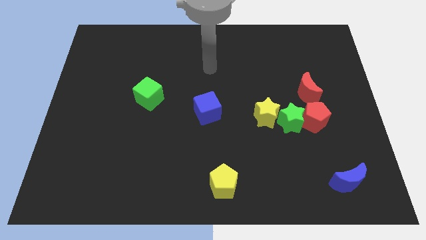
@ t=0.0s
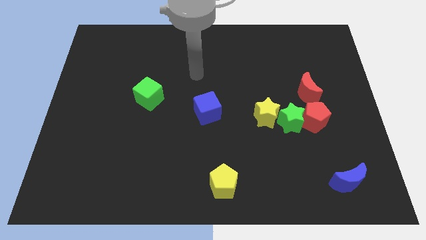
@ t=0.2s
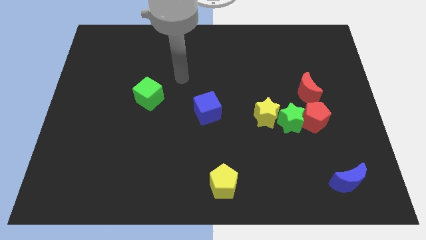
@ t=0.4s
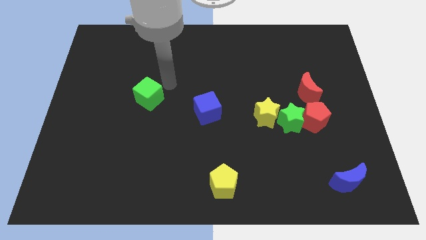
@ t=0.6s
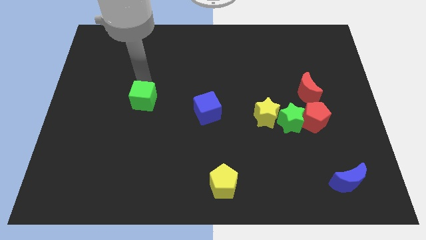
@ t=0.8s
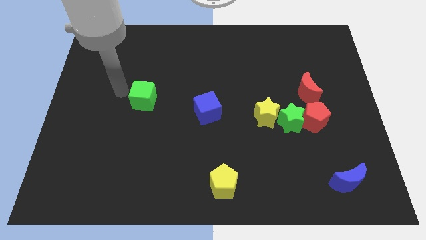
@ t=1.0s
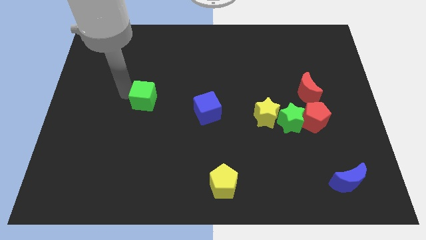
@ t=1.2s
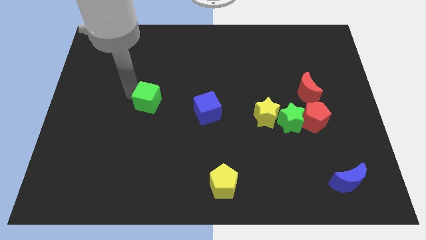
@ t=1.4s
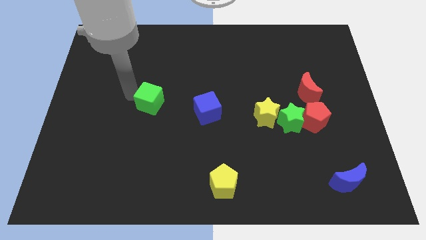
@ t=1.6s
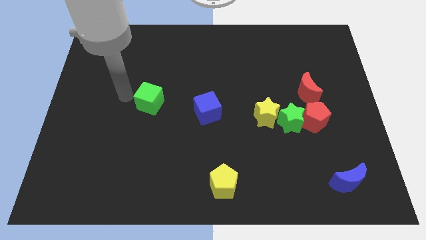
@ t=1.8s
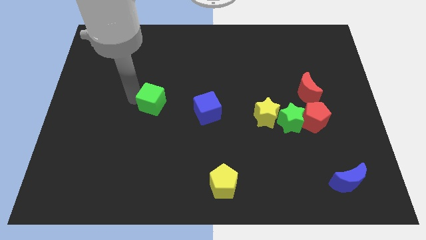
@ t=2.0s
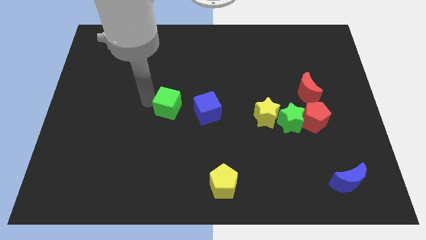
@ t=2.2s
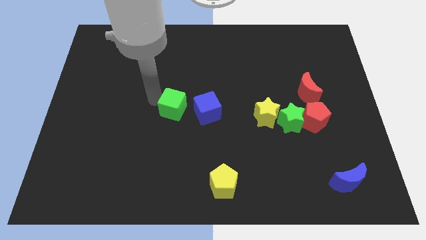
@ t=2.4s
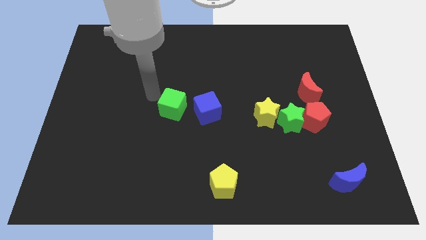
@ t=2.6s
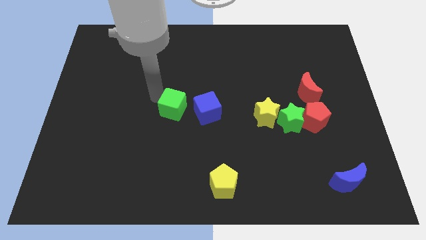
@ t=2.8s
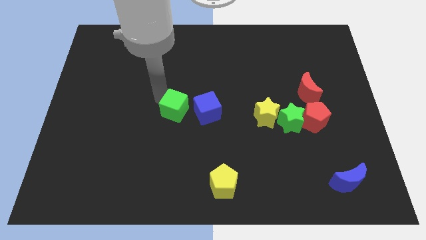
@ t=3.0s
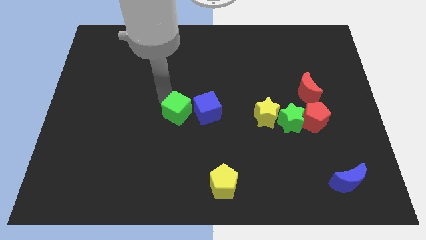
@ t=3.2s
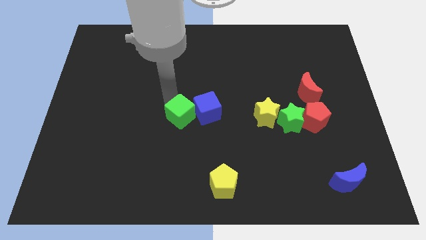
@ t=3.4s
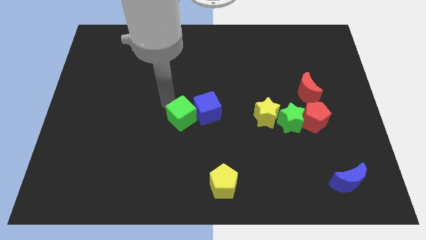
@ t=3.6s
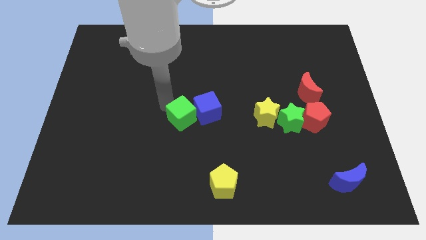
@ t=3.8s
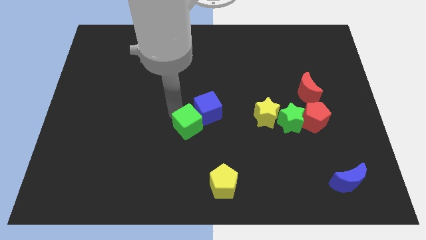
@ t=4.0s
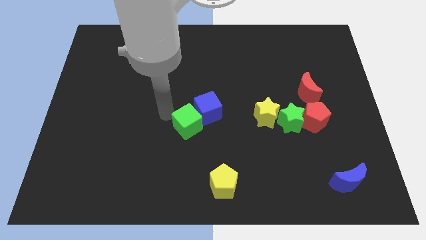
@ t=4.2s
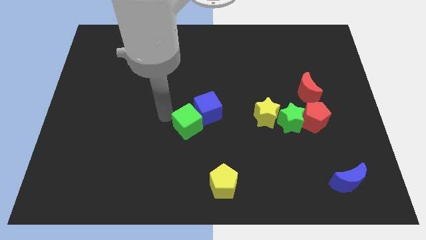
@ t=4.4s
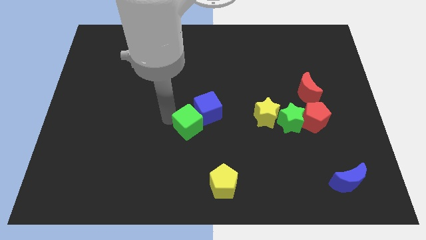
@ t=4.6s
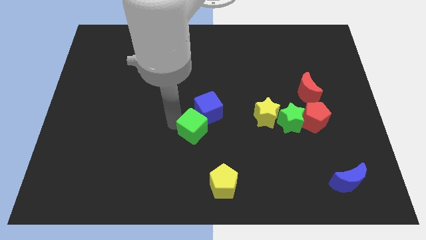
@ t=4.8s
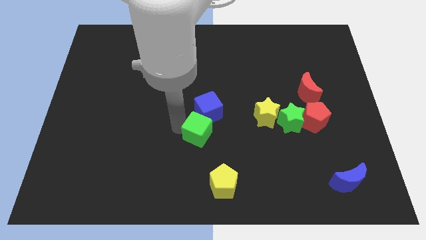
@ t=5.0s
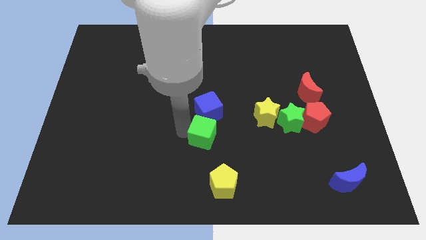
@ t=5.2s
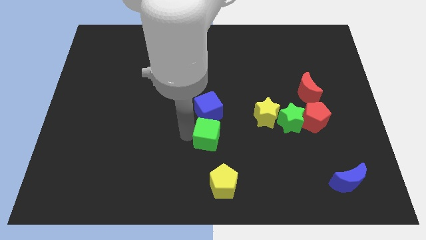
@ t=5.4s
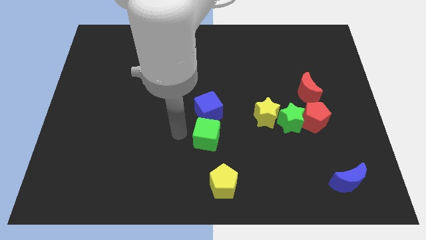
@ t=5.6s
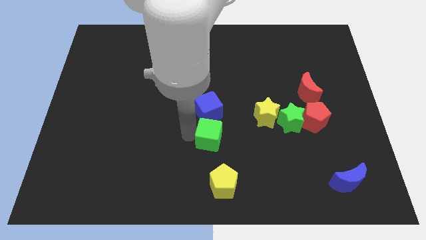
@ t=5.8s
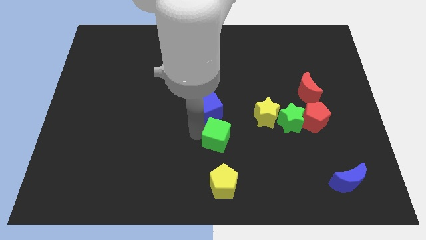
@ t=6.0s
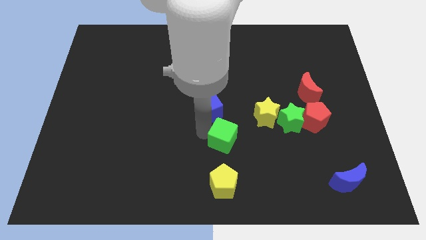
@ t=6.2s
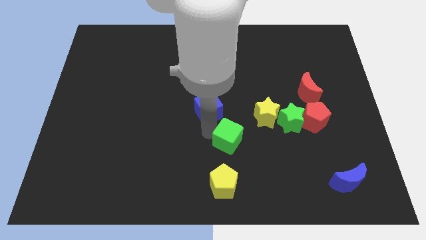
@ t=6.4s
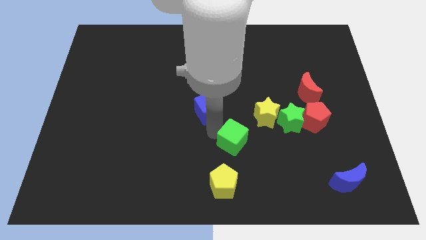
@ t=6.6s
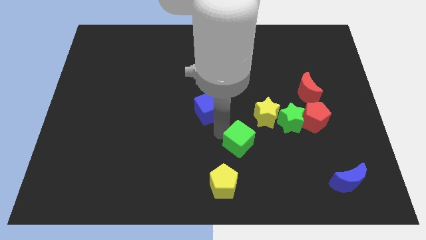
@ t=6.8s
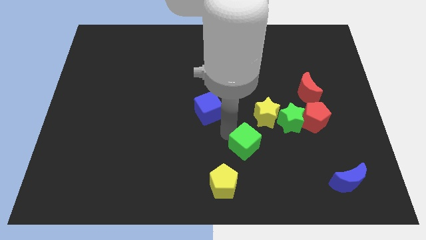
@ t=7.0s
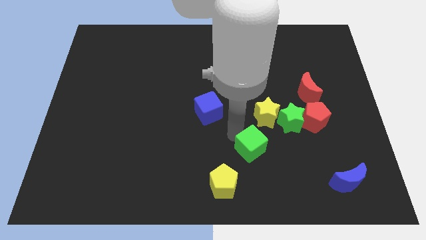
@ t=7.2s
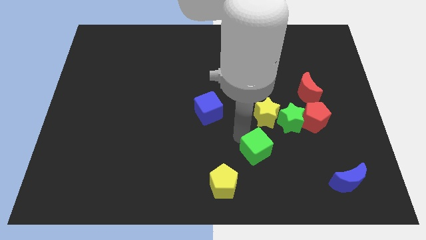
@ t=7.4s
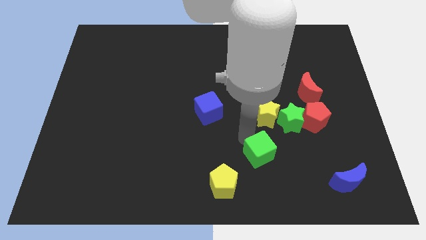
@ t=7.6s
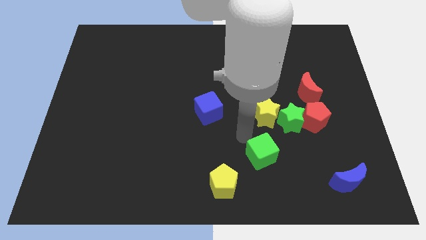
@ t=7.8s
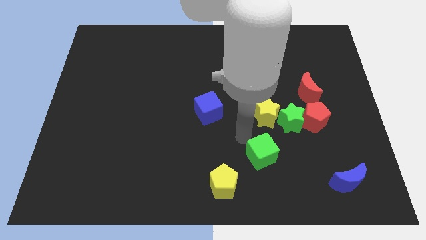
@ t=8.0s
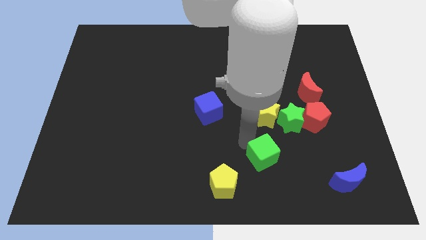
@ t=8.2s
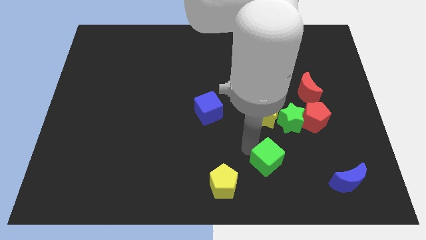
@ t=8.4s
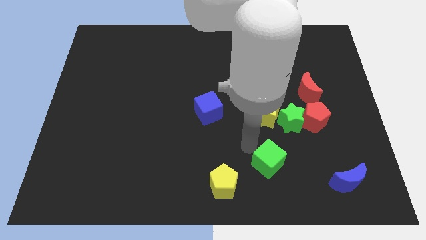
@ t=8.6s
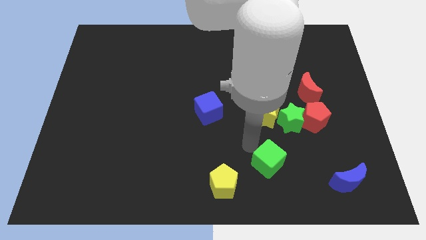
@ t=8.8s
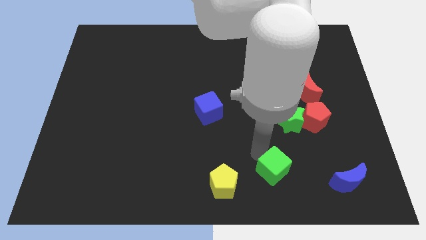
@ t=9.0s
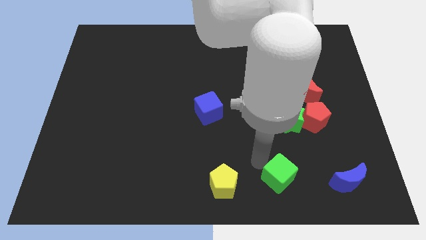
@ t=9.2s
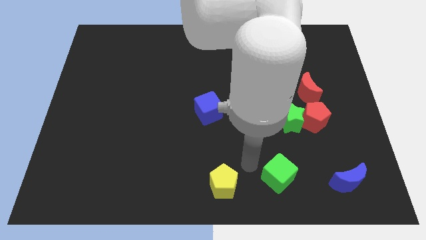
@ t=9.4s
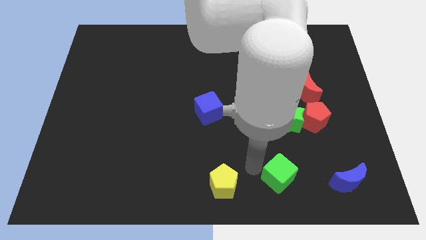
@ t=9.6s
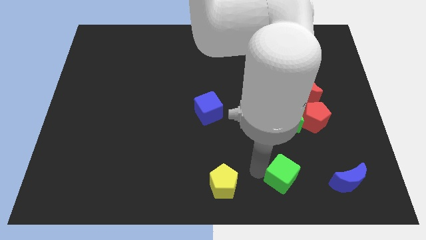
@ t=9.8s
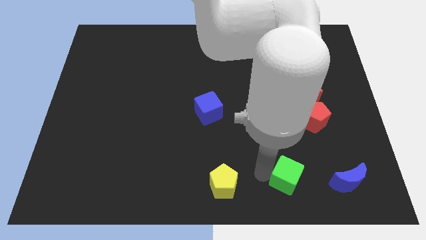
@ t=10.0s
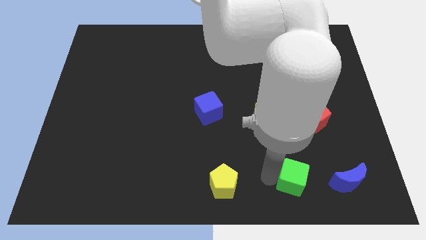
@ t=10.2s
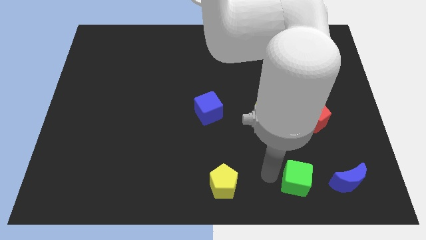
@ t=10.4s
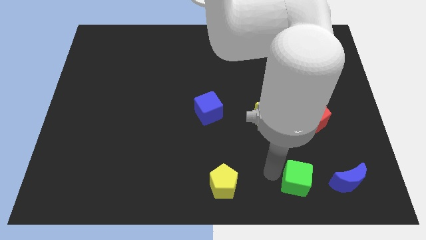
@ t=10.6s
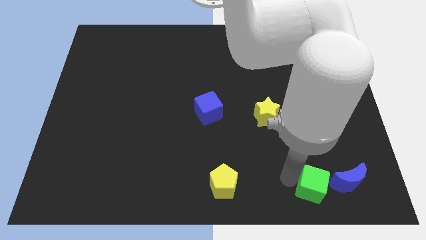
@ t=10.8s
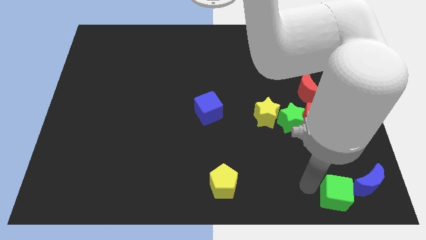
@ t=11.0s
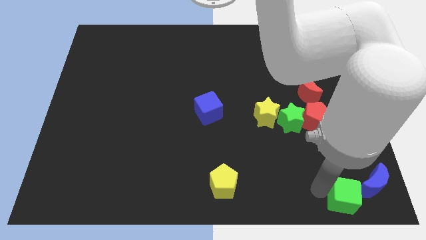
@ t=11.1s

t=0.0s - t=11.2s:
slide the green cube to the bottom right of the board
